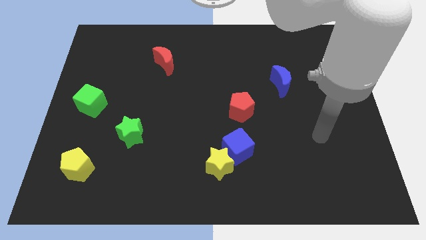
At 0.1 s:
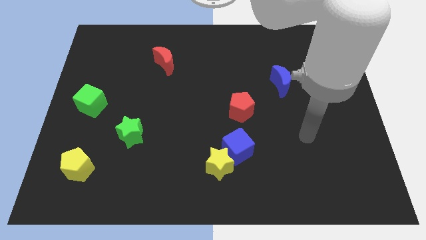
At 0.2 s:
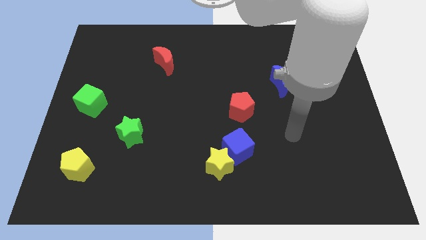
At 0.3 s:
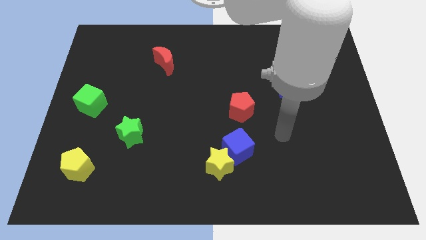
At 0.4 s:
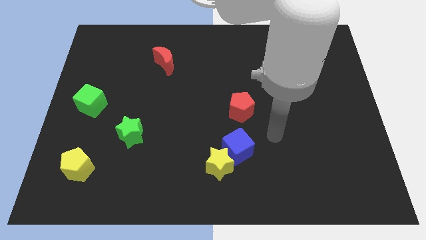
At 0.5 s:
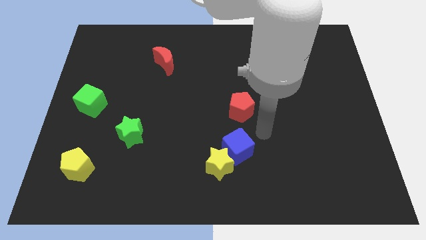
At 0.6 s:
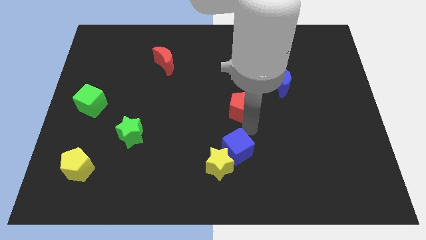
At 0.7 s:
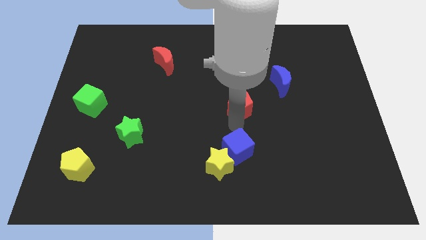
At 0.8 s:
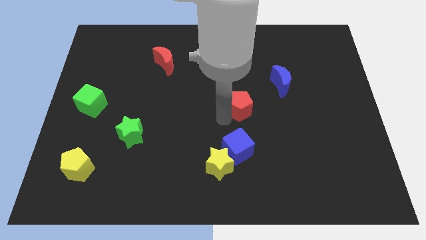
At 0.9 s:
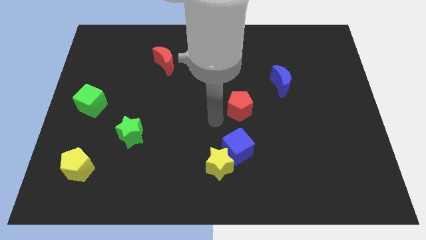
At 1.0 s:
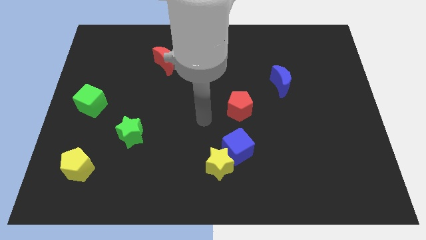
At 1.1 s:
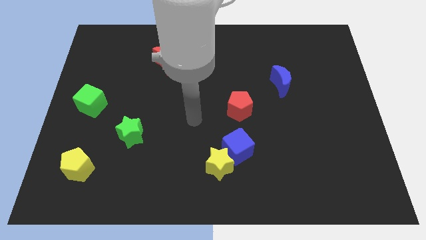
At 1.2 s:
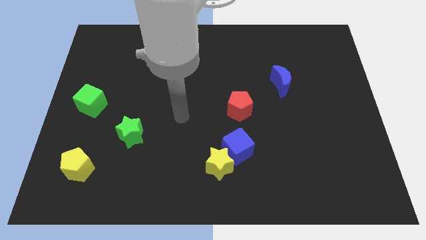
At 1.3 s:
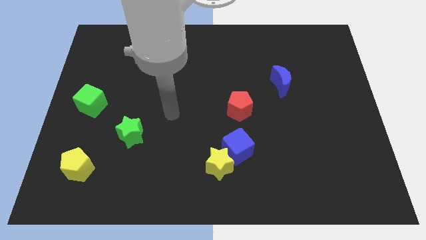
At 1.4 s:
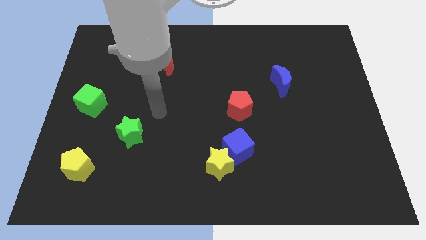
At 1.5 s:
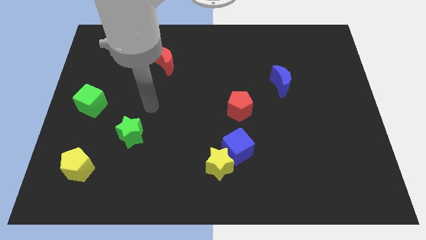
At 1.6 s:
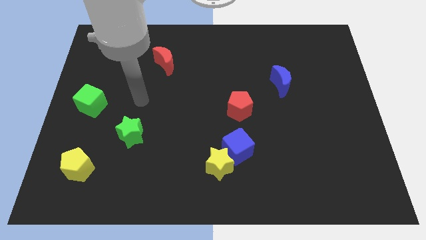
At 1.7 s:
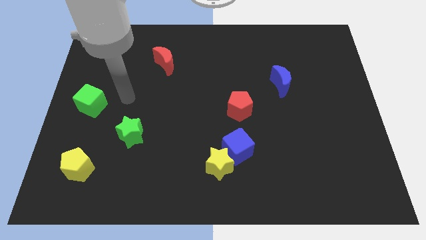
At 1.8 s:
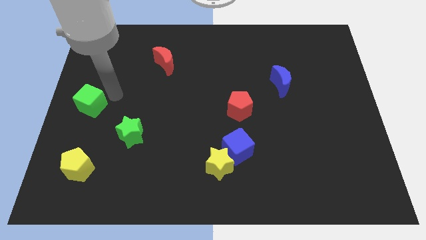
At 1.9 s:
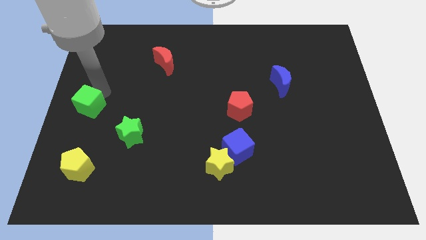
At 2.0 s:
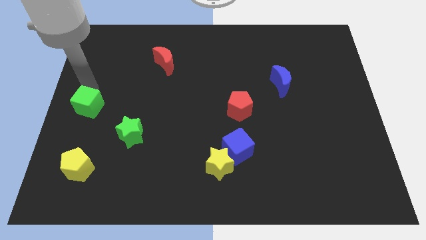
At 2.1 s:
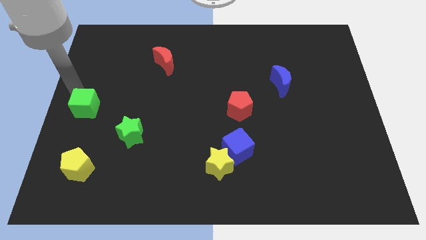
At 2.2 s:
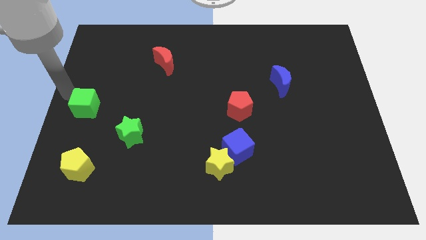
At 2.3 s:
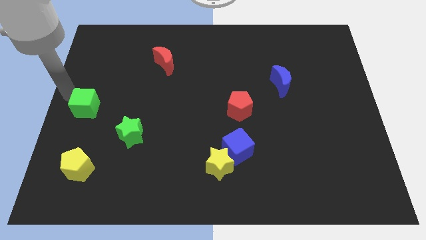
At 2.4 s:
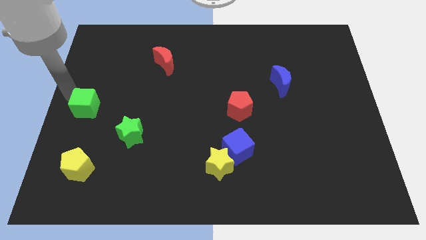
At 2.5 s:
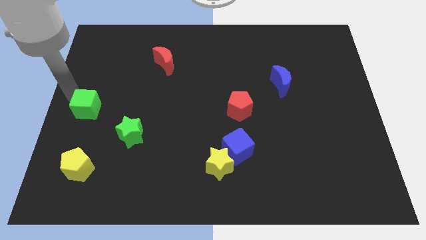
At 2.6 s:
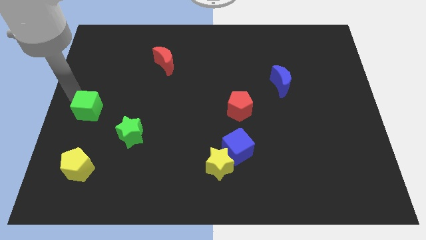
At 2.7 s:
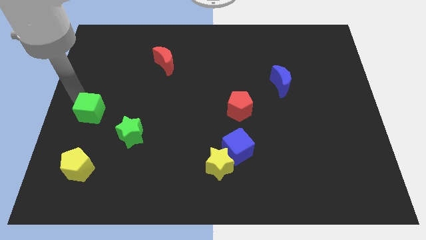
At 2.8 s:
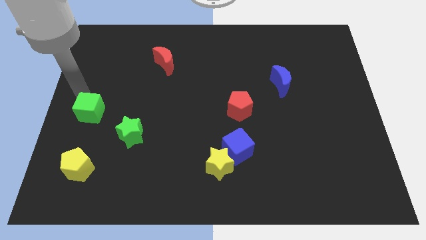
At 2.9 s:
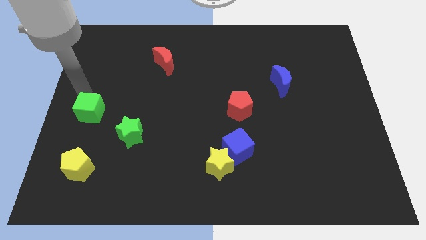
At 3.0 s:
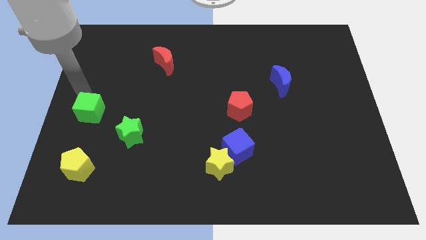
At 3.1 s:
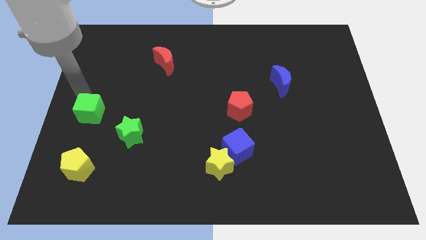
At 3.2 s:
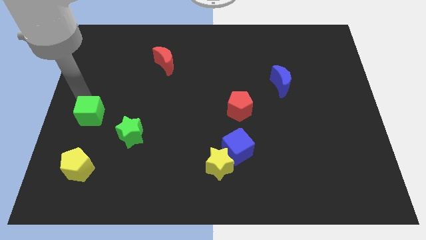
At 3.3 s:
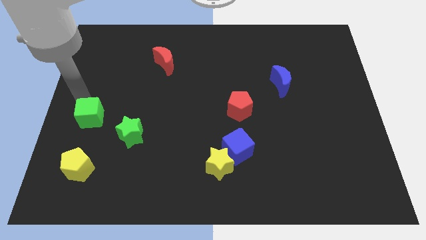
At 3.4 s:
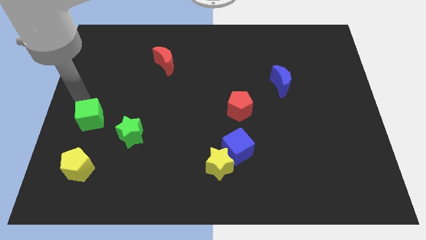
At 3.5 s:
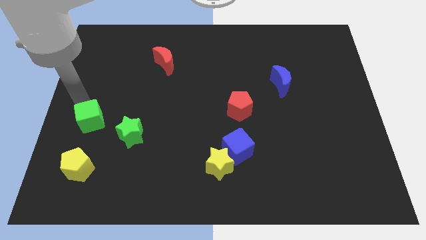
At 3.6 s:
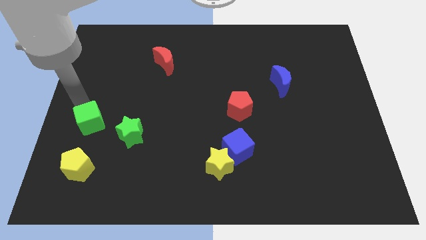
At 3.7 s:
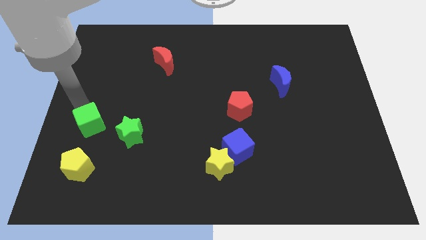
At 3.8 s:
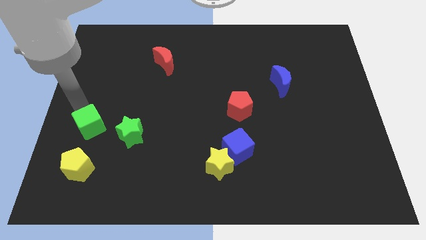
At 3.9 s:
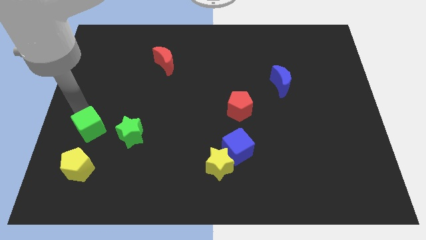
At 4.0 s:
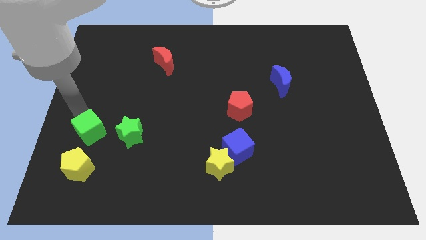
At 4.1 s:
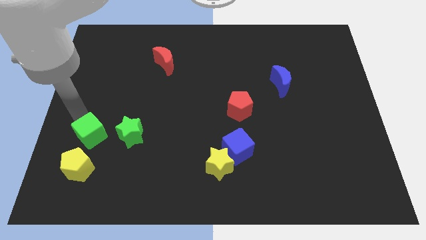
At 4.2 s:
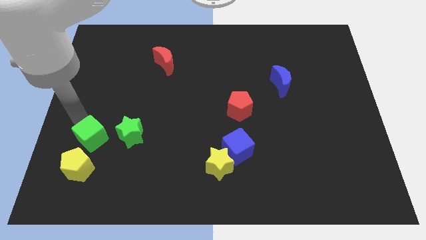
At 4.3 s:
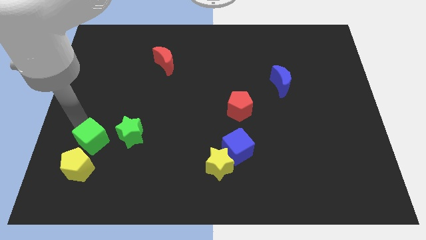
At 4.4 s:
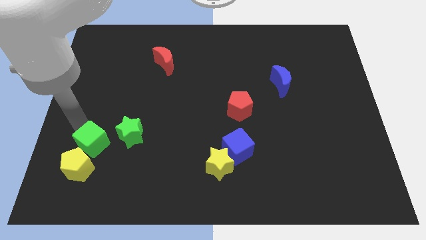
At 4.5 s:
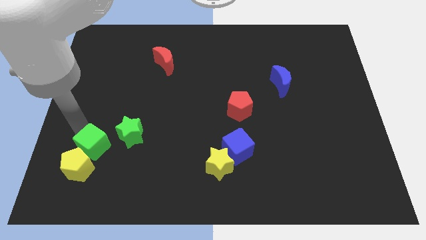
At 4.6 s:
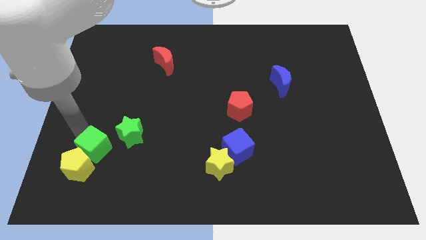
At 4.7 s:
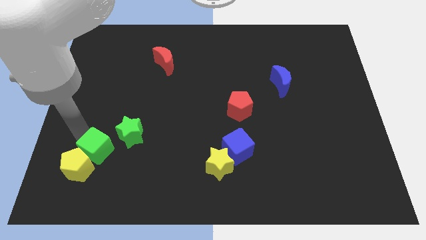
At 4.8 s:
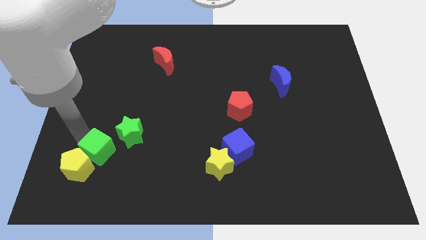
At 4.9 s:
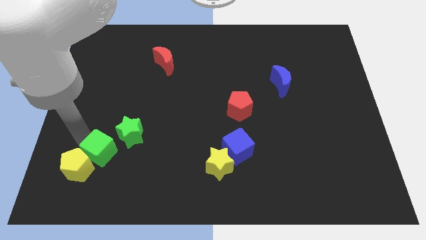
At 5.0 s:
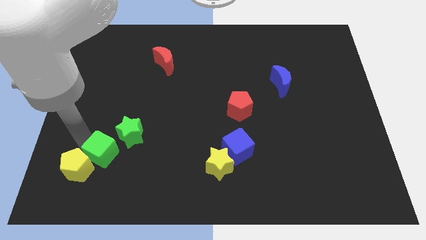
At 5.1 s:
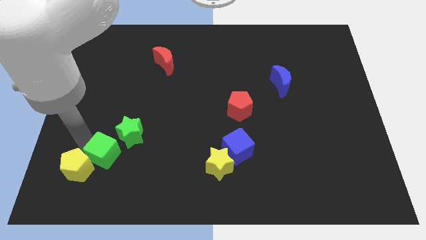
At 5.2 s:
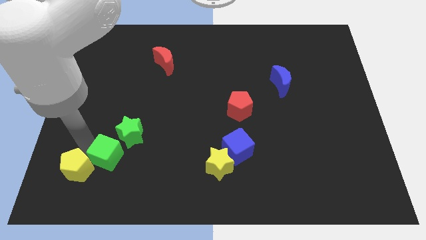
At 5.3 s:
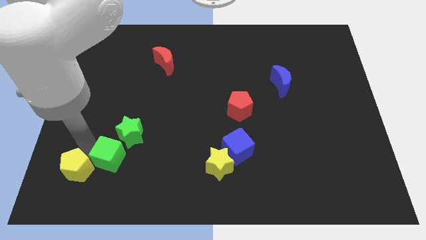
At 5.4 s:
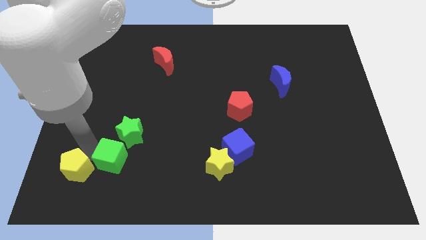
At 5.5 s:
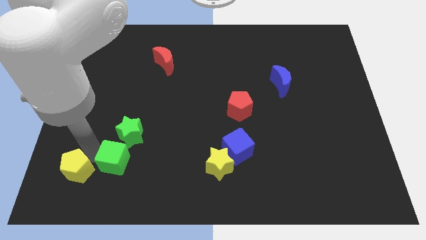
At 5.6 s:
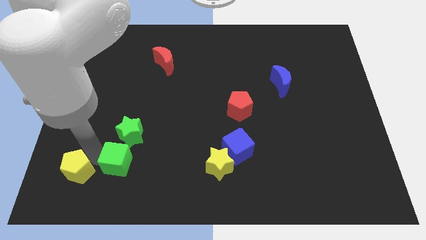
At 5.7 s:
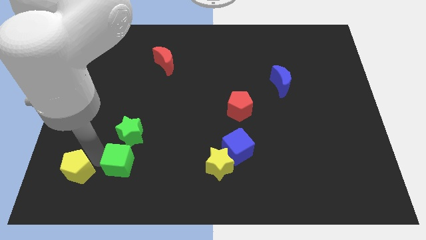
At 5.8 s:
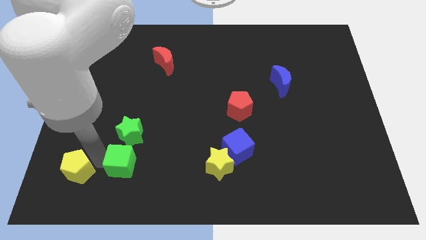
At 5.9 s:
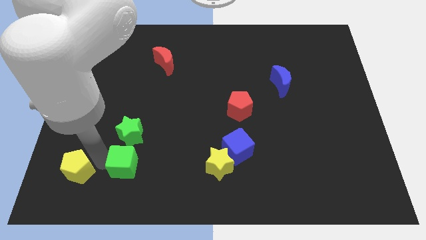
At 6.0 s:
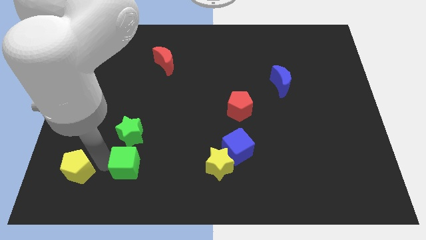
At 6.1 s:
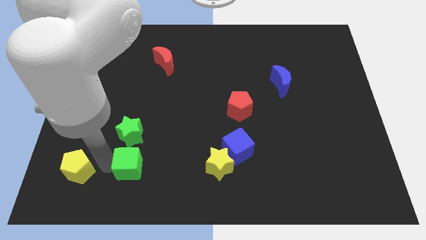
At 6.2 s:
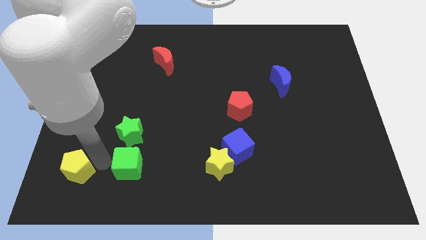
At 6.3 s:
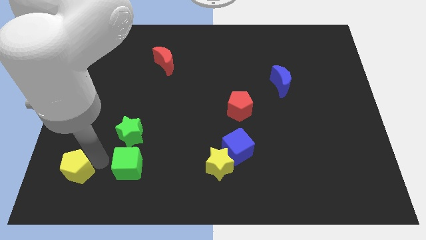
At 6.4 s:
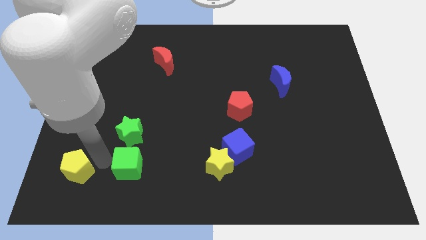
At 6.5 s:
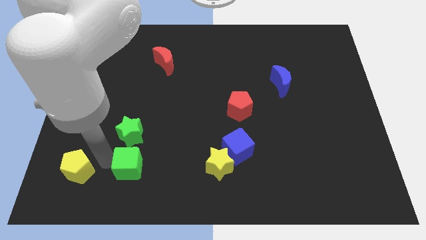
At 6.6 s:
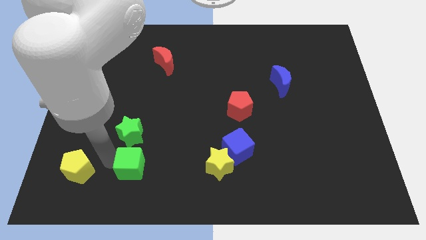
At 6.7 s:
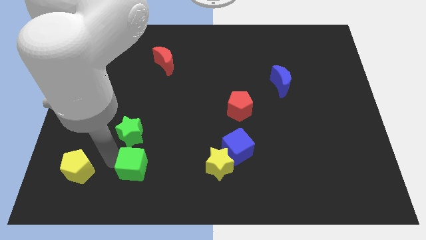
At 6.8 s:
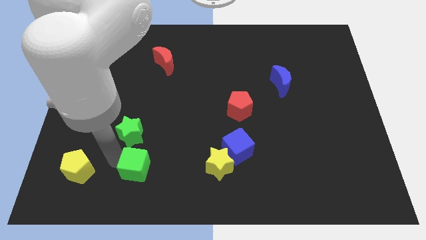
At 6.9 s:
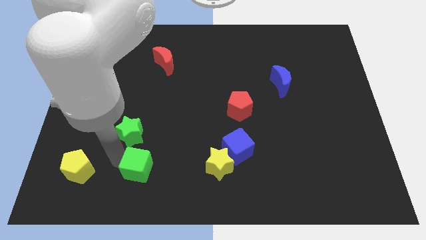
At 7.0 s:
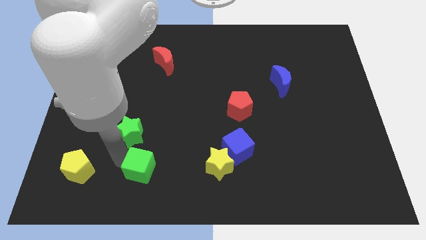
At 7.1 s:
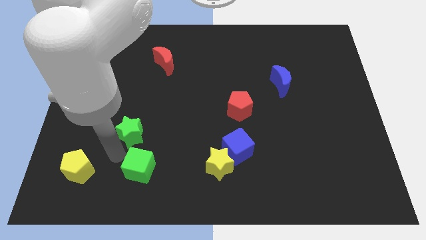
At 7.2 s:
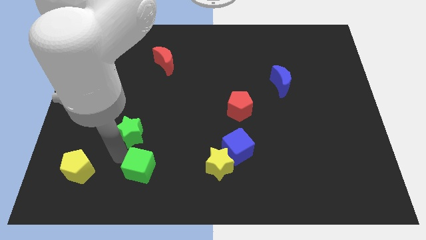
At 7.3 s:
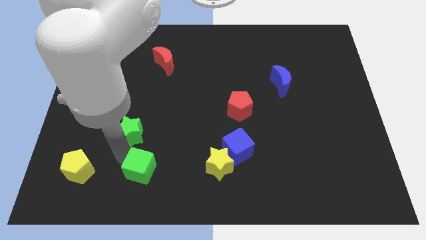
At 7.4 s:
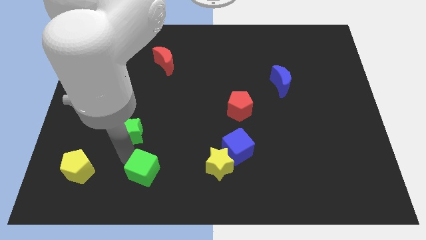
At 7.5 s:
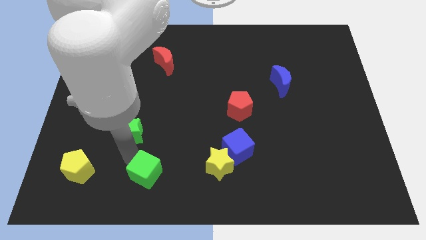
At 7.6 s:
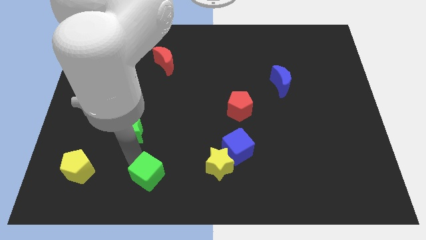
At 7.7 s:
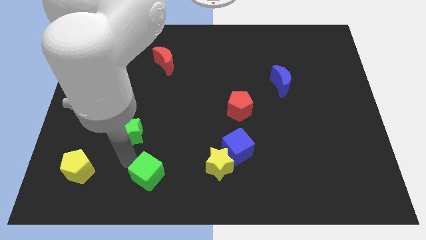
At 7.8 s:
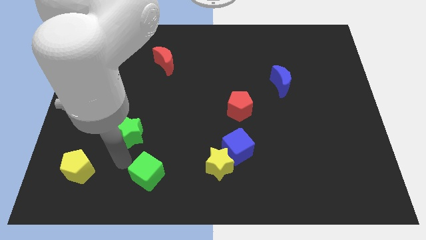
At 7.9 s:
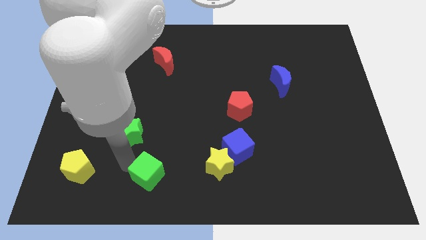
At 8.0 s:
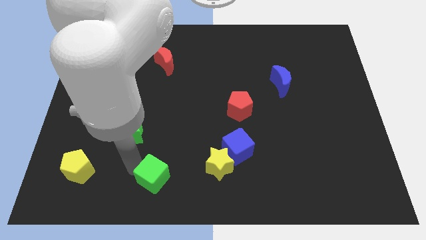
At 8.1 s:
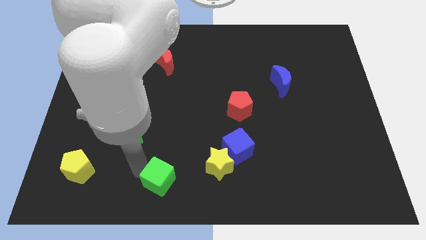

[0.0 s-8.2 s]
push the green cube to the bottom side
